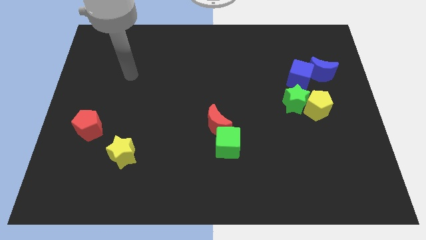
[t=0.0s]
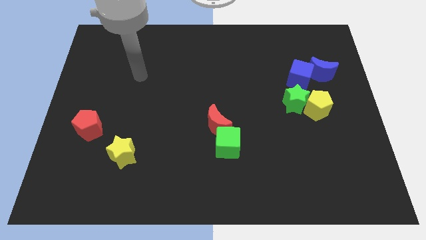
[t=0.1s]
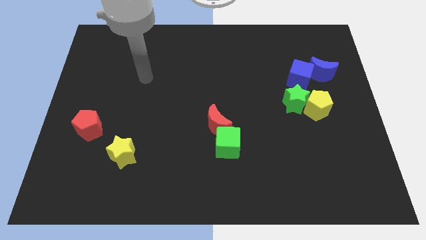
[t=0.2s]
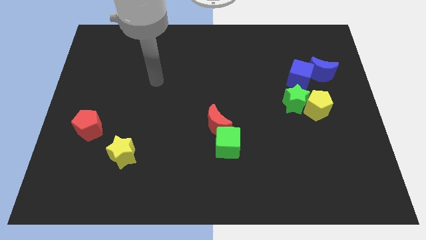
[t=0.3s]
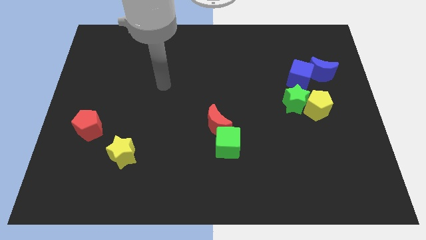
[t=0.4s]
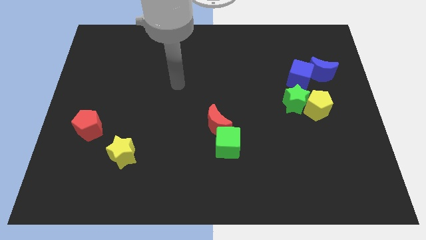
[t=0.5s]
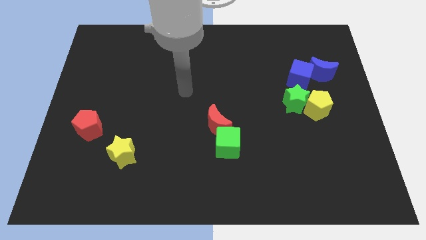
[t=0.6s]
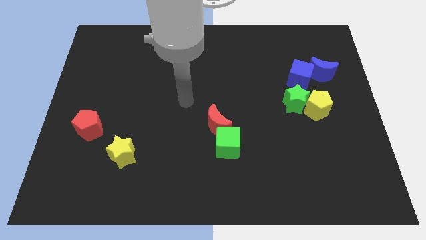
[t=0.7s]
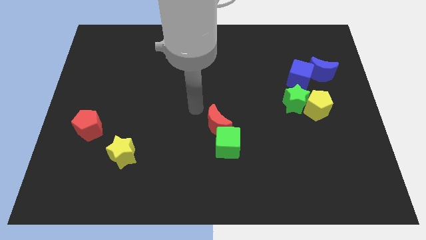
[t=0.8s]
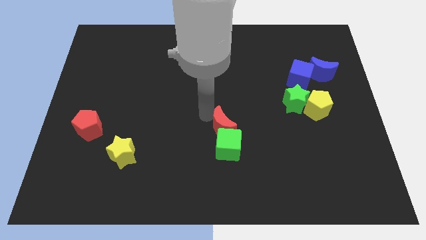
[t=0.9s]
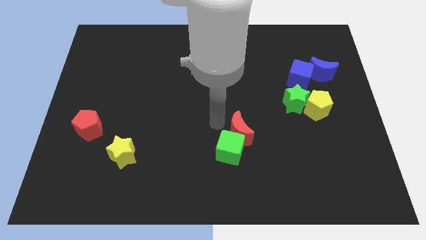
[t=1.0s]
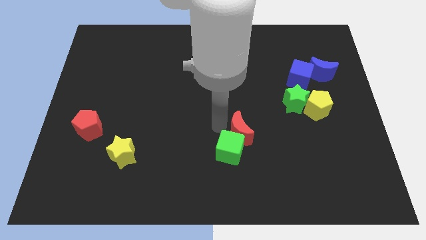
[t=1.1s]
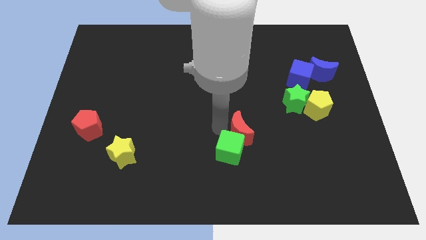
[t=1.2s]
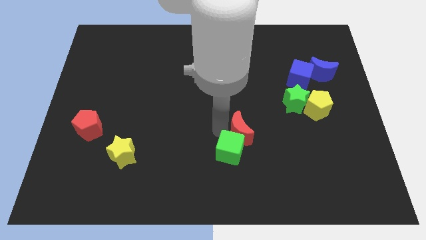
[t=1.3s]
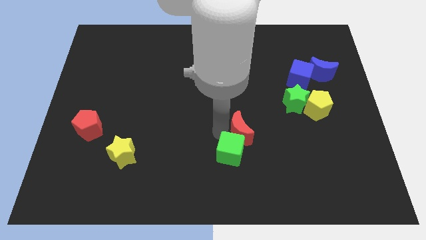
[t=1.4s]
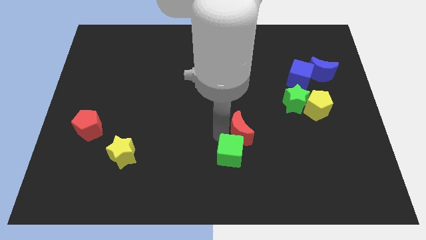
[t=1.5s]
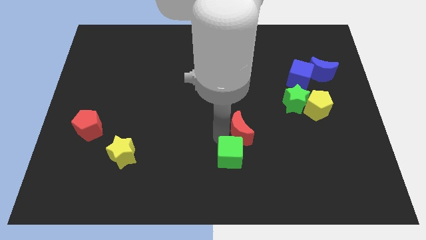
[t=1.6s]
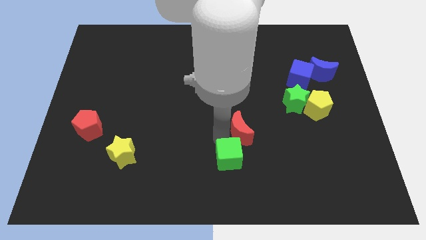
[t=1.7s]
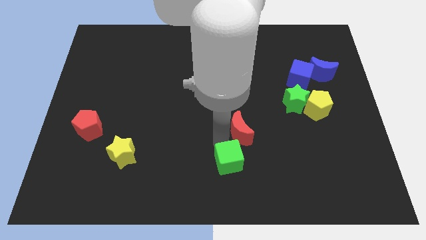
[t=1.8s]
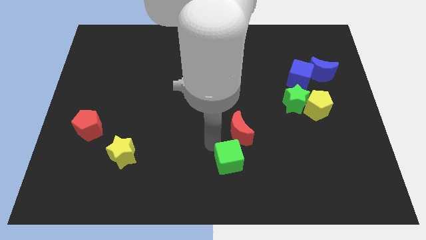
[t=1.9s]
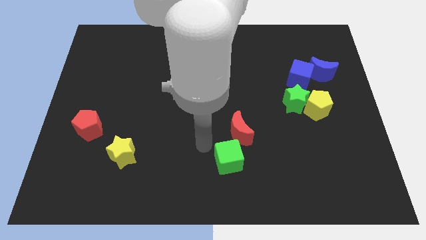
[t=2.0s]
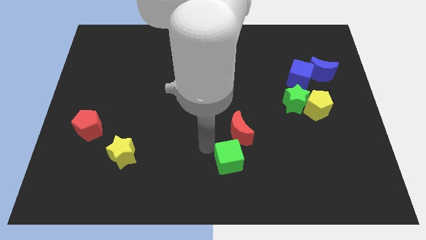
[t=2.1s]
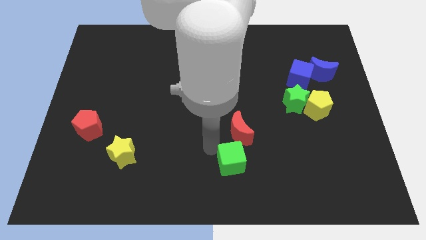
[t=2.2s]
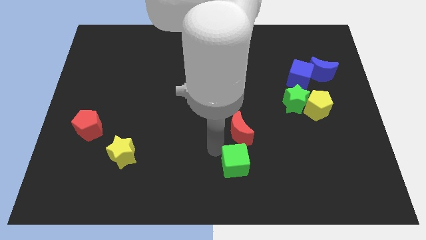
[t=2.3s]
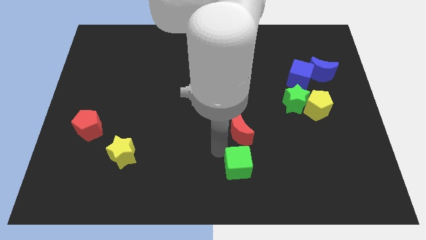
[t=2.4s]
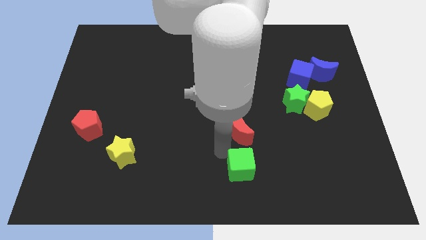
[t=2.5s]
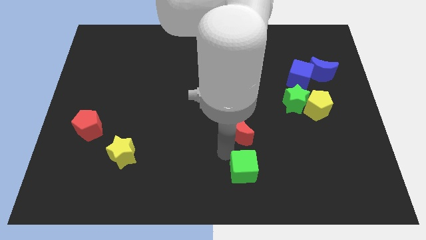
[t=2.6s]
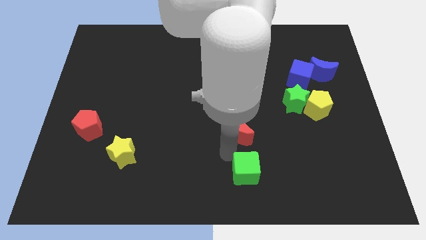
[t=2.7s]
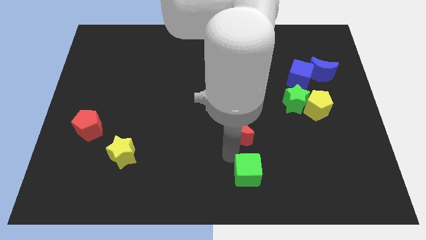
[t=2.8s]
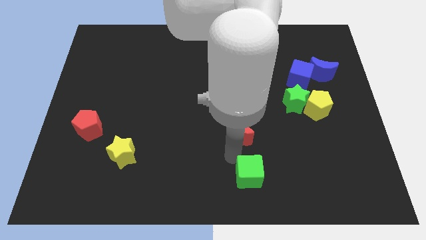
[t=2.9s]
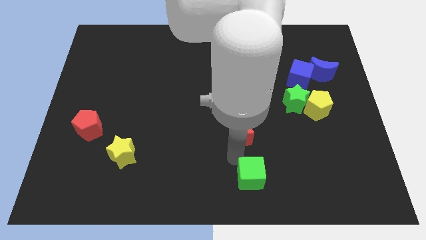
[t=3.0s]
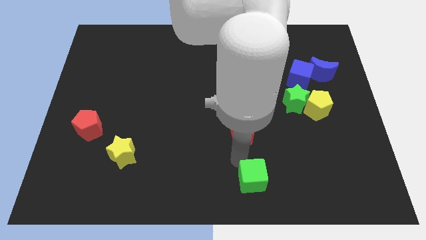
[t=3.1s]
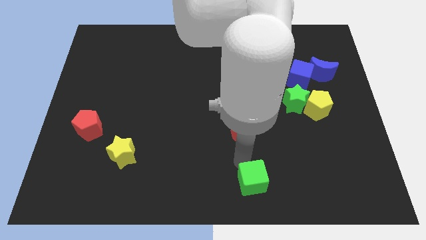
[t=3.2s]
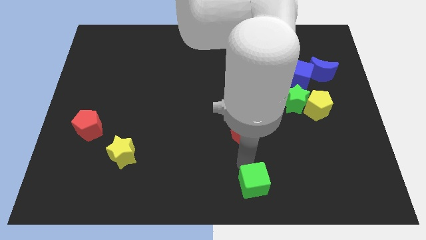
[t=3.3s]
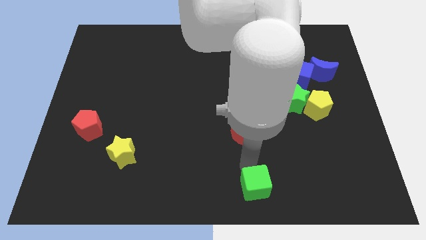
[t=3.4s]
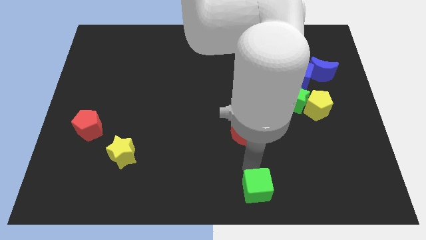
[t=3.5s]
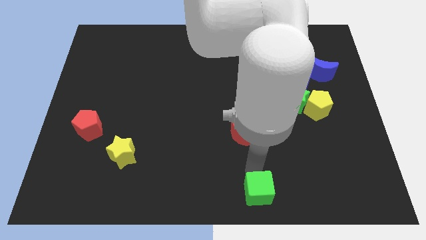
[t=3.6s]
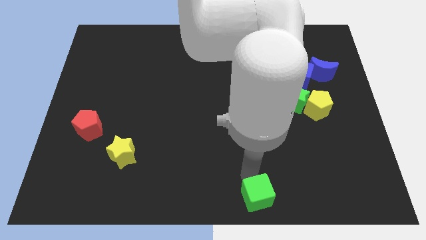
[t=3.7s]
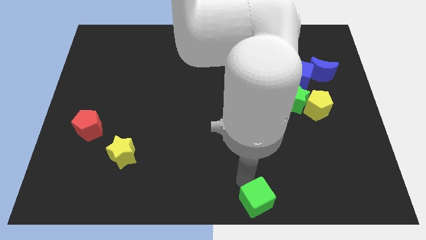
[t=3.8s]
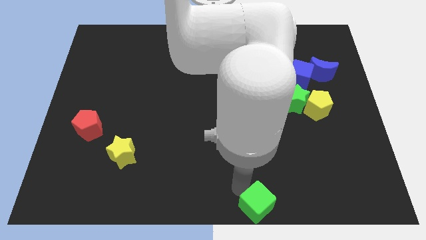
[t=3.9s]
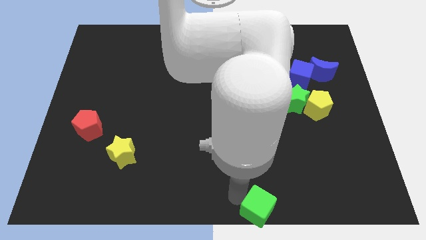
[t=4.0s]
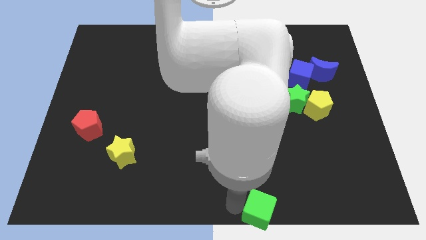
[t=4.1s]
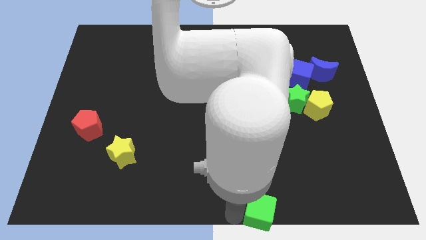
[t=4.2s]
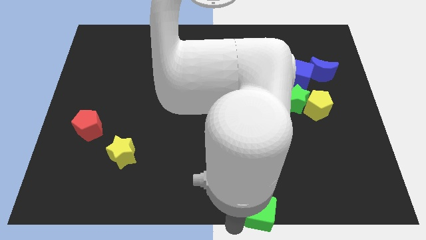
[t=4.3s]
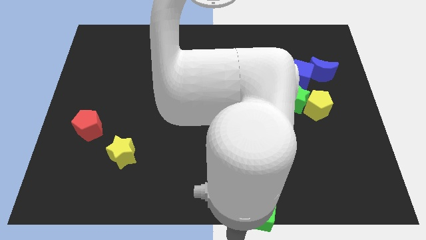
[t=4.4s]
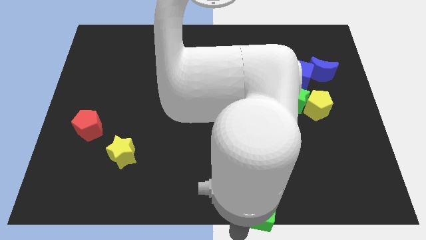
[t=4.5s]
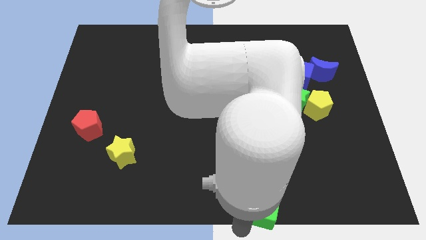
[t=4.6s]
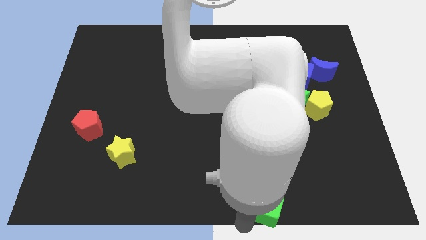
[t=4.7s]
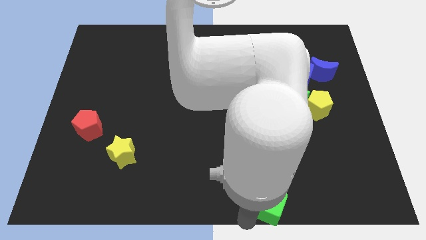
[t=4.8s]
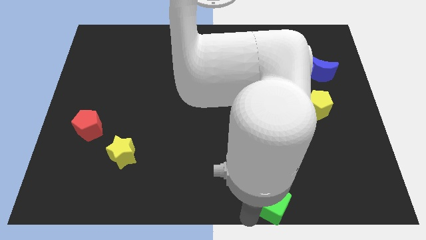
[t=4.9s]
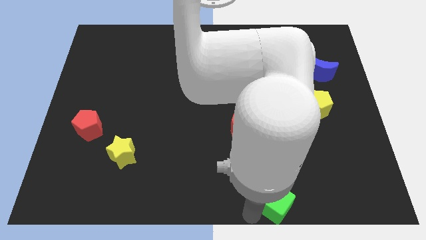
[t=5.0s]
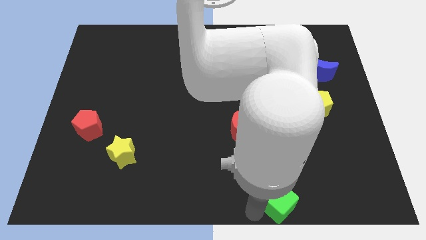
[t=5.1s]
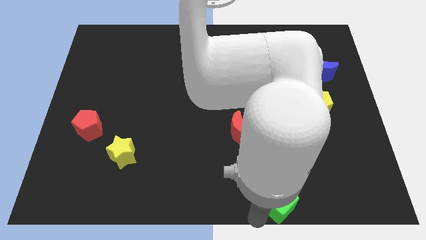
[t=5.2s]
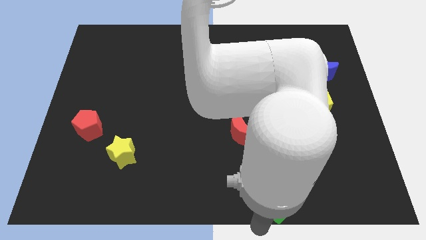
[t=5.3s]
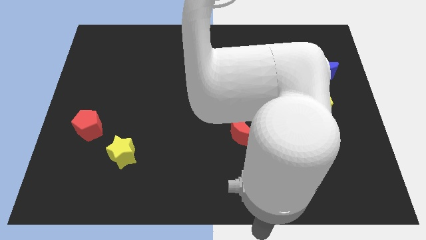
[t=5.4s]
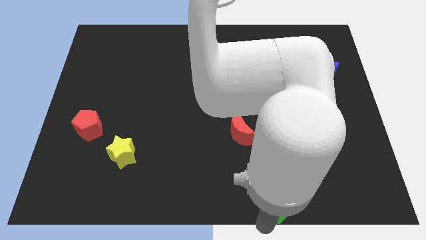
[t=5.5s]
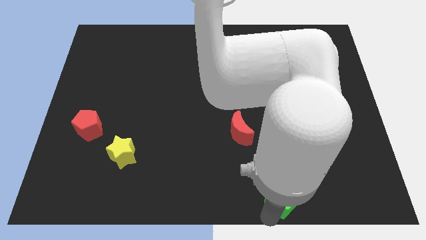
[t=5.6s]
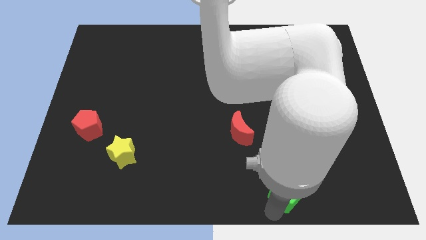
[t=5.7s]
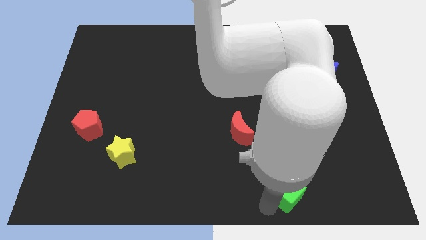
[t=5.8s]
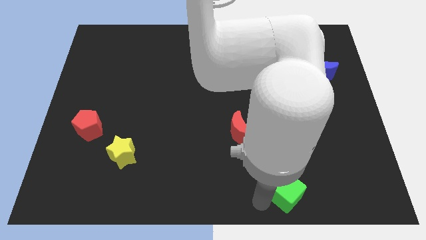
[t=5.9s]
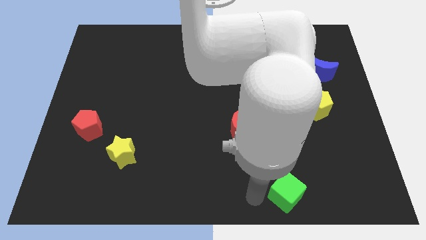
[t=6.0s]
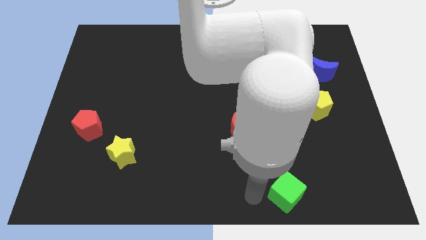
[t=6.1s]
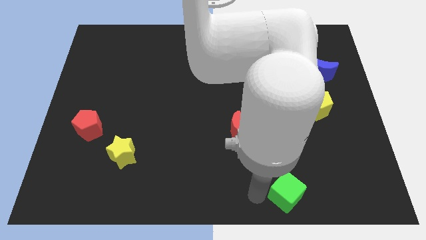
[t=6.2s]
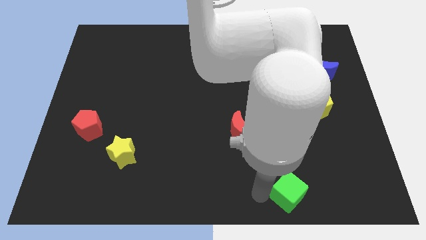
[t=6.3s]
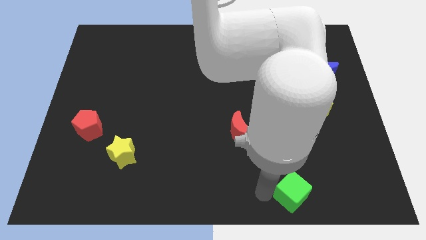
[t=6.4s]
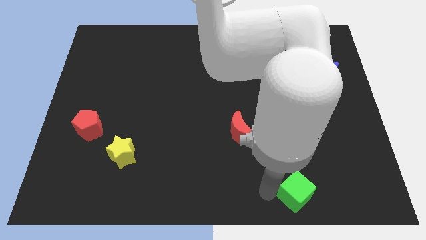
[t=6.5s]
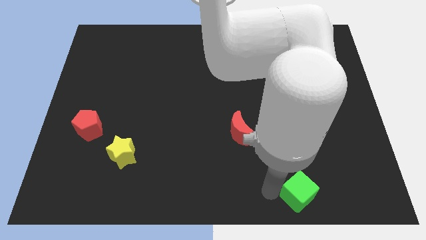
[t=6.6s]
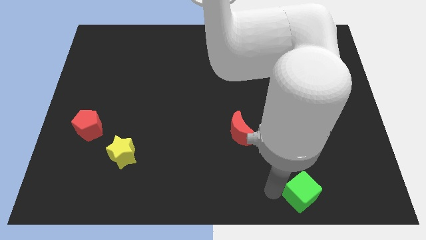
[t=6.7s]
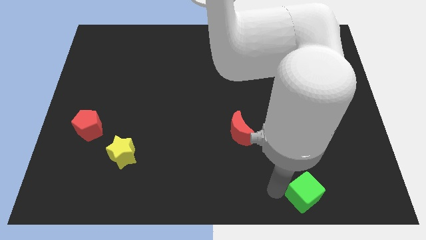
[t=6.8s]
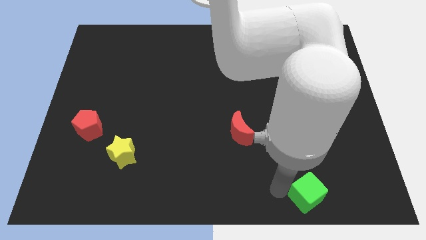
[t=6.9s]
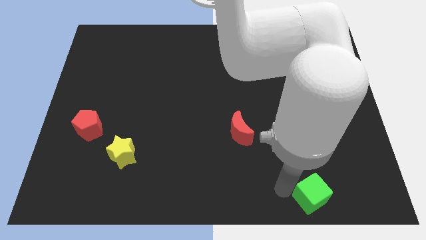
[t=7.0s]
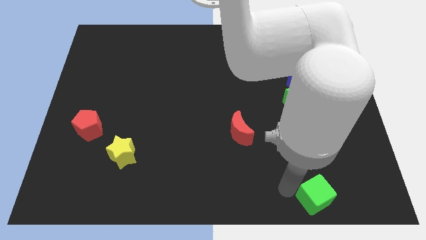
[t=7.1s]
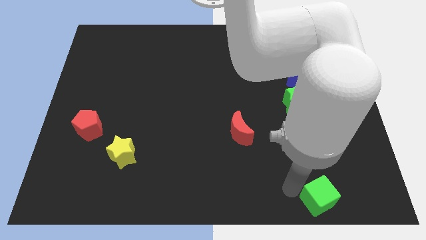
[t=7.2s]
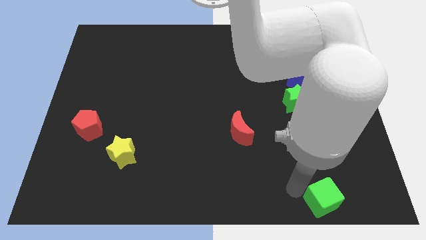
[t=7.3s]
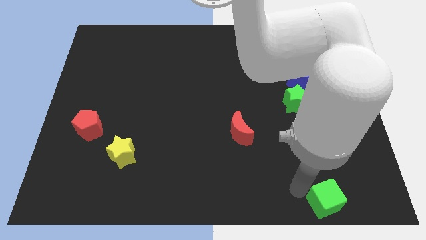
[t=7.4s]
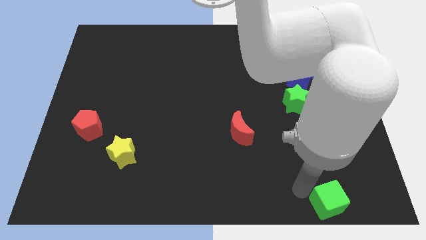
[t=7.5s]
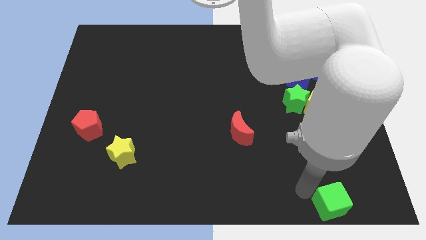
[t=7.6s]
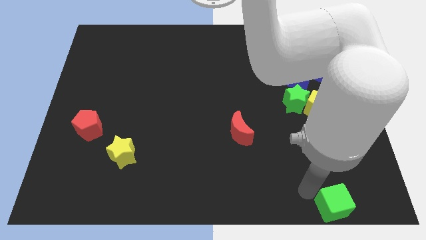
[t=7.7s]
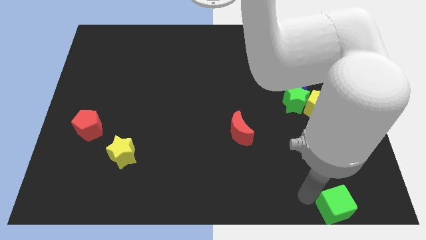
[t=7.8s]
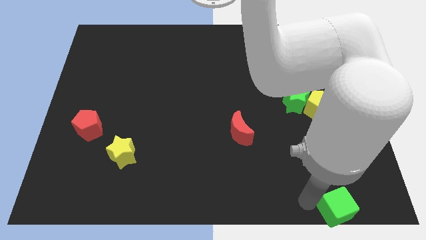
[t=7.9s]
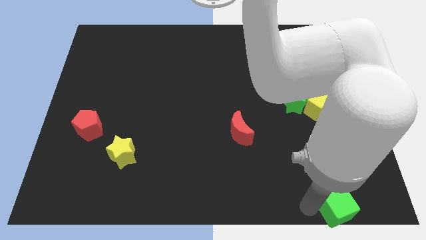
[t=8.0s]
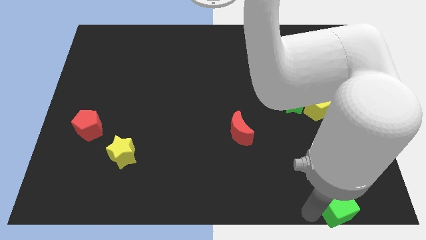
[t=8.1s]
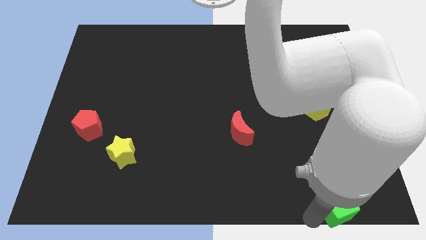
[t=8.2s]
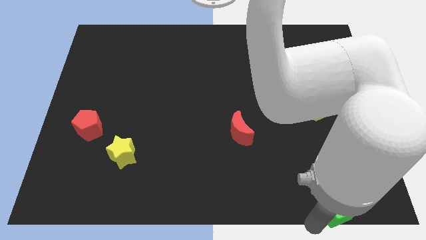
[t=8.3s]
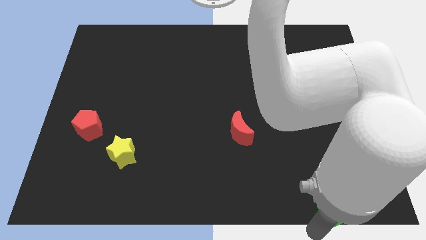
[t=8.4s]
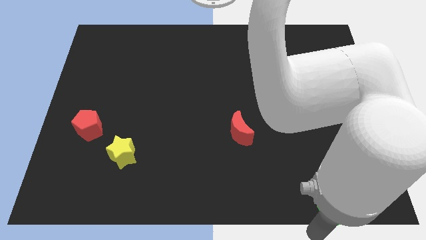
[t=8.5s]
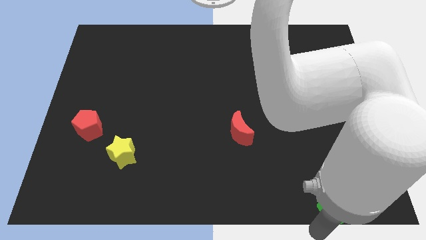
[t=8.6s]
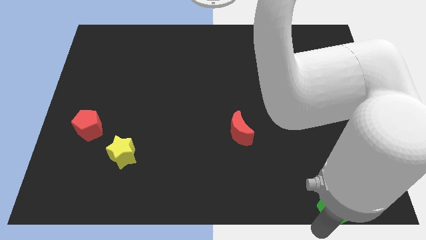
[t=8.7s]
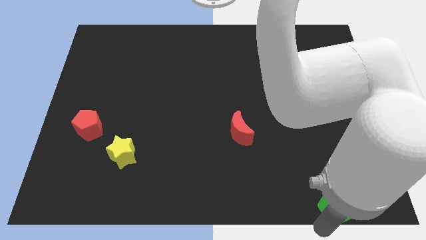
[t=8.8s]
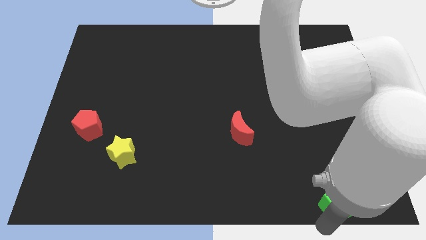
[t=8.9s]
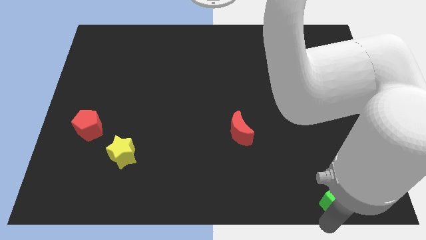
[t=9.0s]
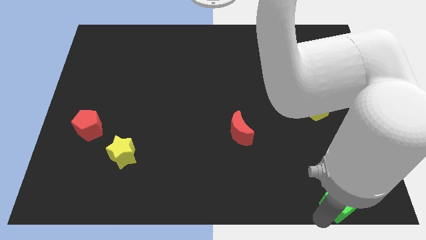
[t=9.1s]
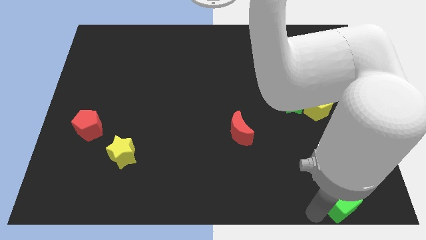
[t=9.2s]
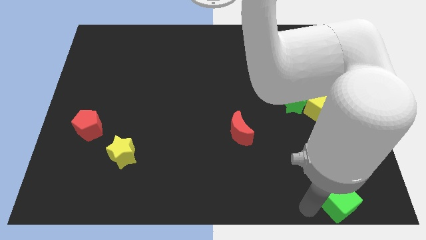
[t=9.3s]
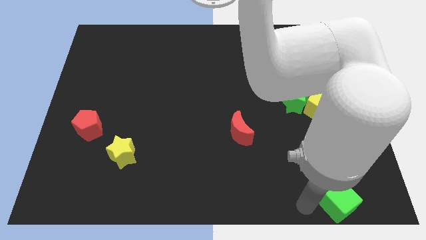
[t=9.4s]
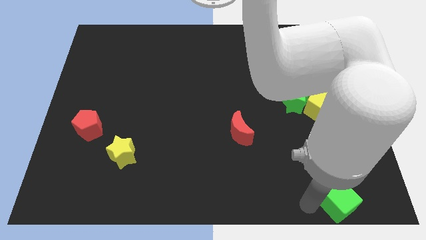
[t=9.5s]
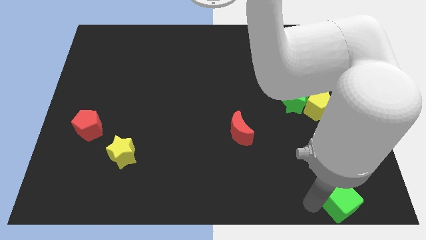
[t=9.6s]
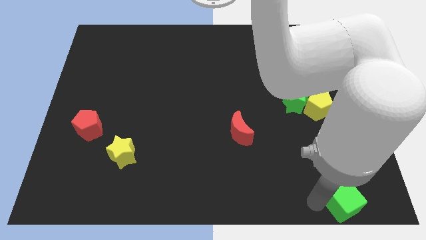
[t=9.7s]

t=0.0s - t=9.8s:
push the green cube to the bottom right
